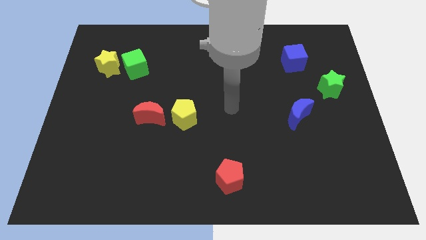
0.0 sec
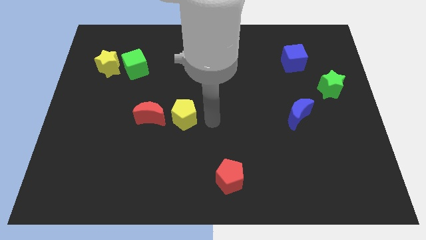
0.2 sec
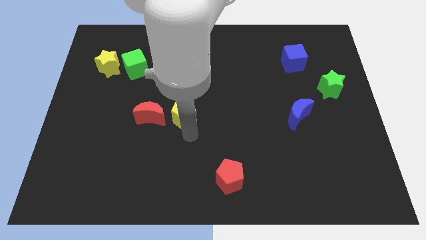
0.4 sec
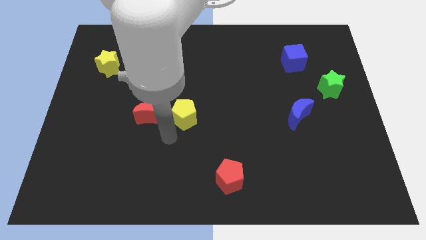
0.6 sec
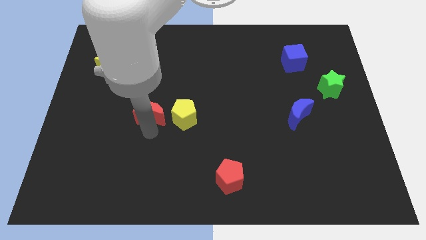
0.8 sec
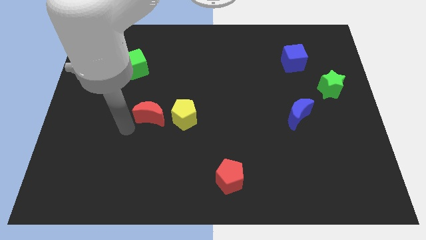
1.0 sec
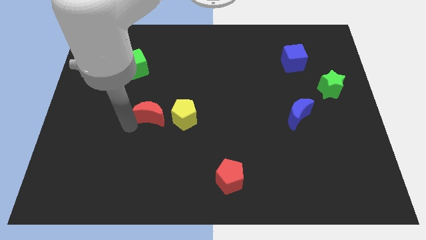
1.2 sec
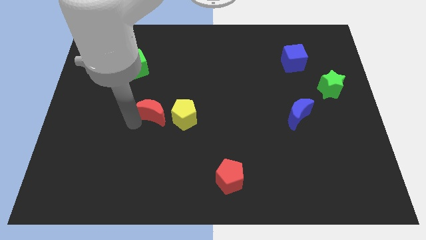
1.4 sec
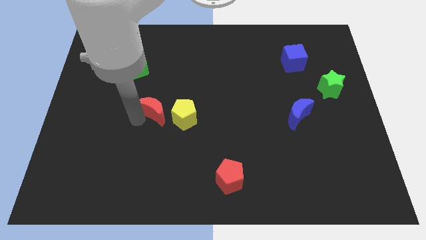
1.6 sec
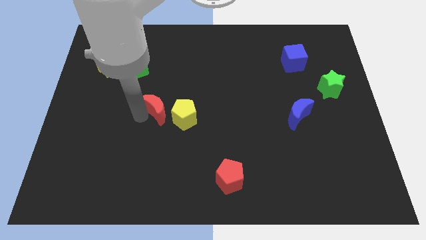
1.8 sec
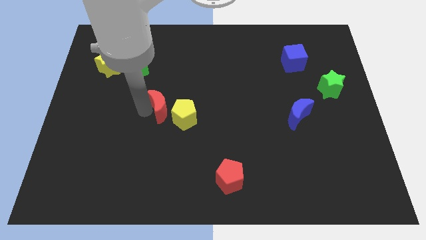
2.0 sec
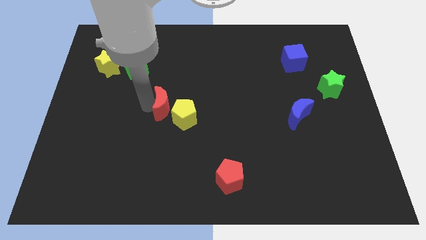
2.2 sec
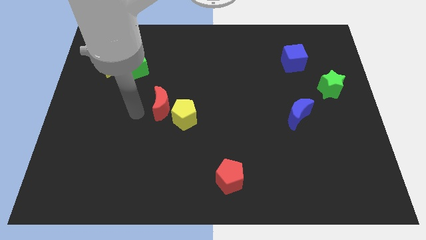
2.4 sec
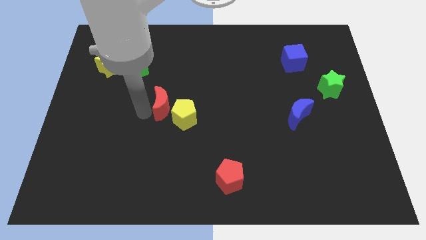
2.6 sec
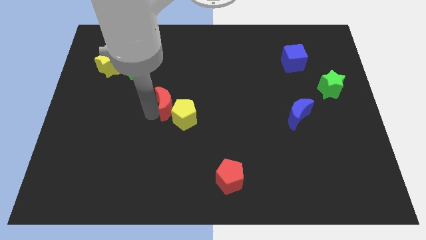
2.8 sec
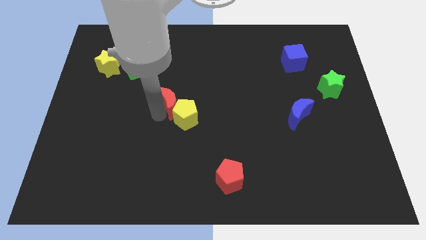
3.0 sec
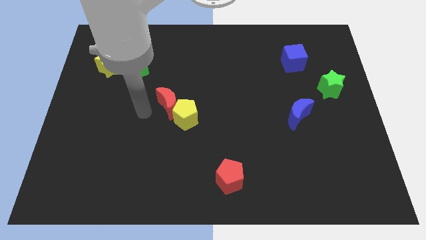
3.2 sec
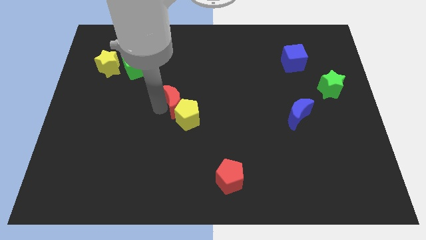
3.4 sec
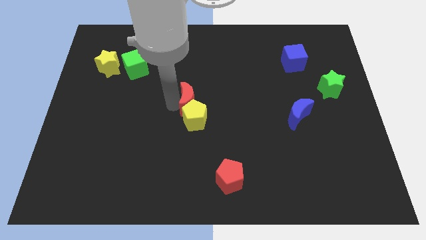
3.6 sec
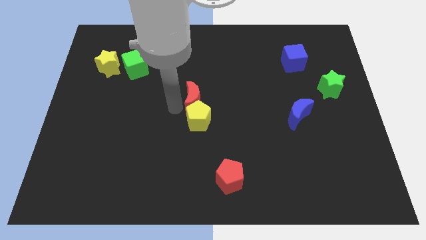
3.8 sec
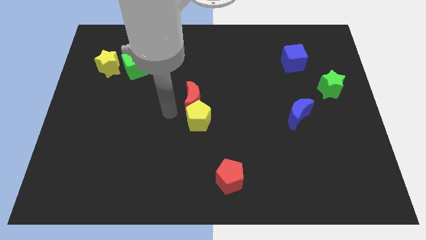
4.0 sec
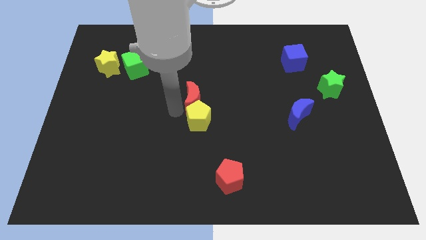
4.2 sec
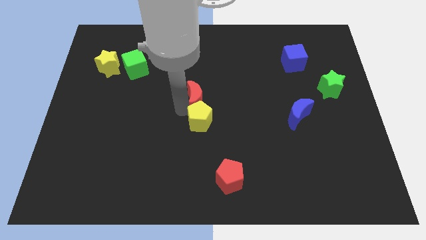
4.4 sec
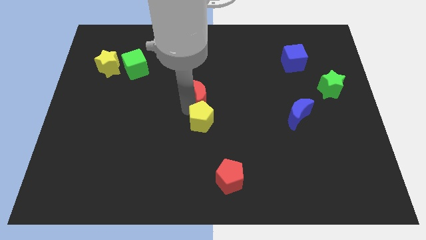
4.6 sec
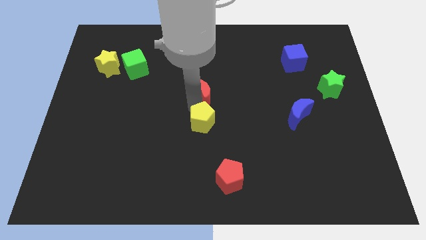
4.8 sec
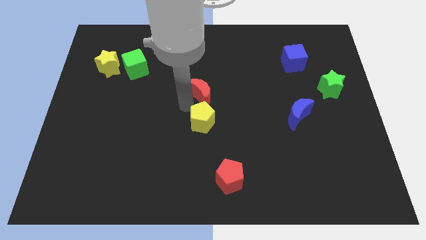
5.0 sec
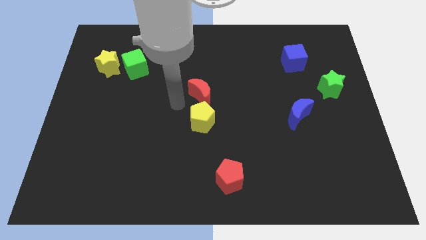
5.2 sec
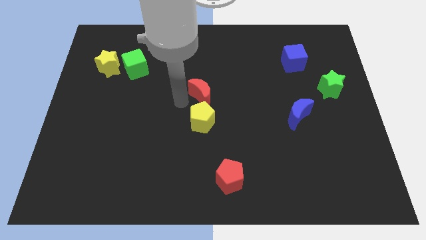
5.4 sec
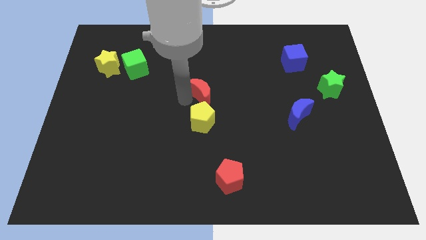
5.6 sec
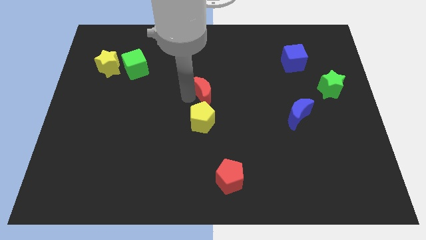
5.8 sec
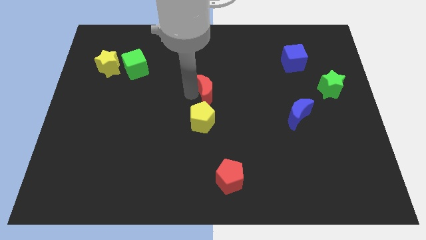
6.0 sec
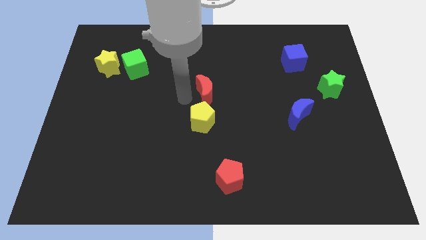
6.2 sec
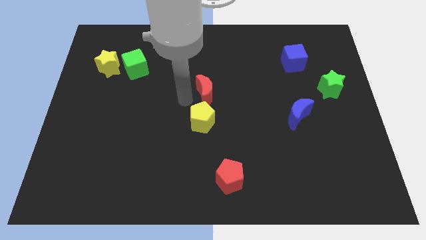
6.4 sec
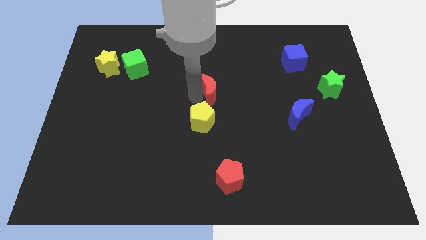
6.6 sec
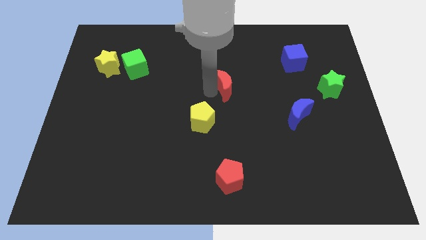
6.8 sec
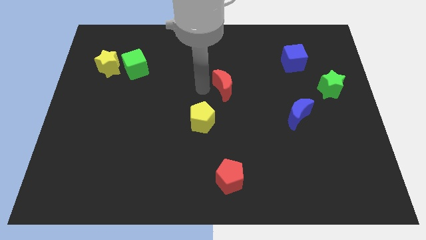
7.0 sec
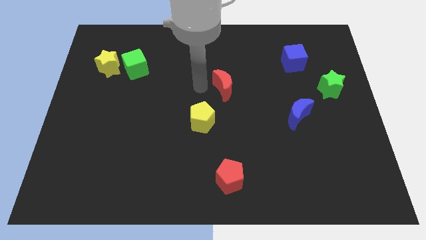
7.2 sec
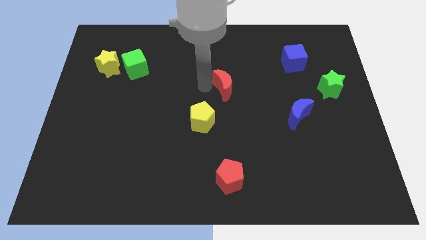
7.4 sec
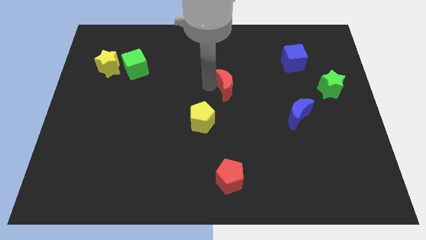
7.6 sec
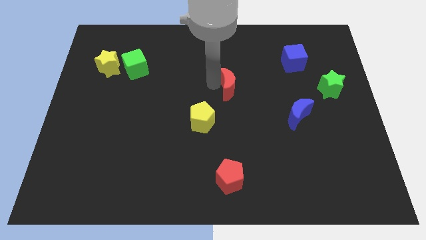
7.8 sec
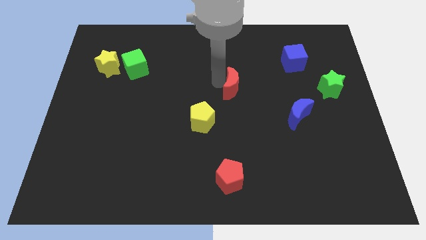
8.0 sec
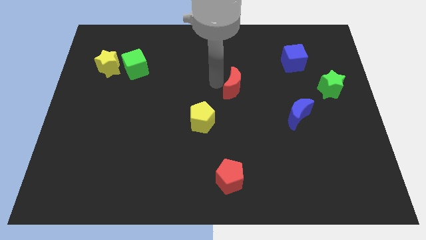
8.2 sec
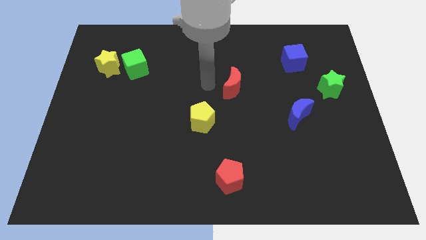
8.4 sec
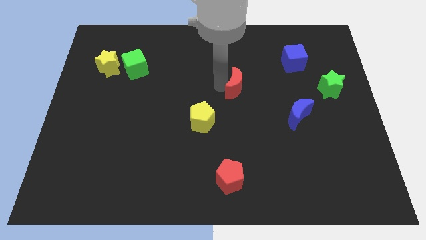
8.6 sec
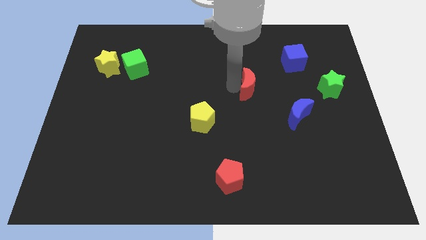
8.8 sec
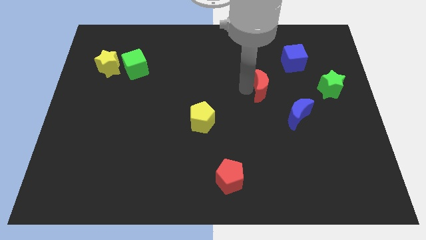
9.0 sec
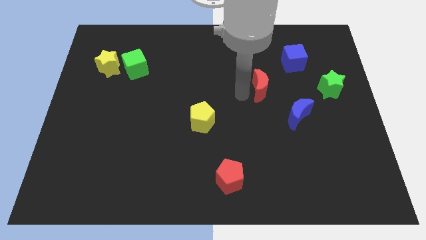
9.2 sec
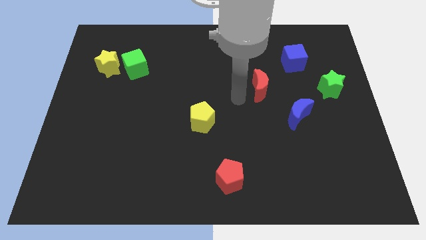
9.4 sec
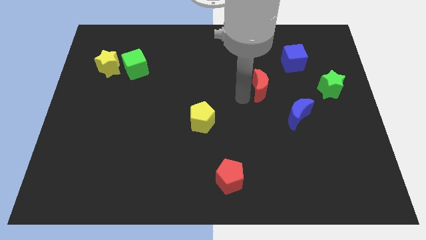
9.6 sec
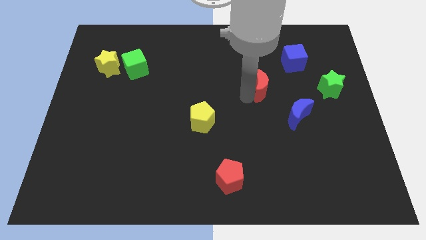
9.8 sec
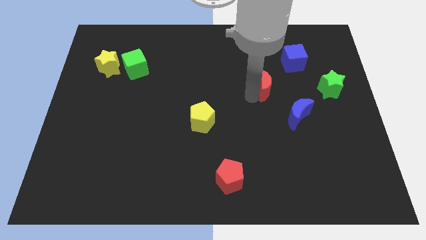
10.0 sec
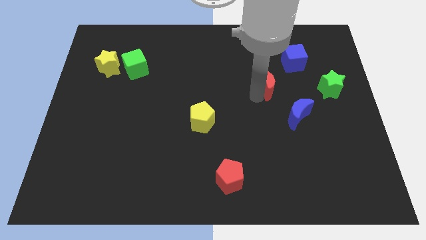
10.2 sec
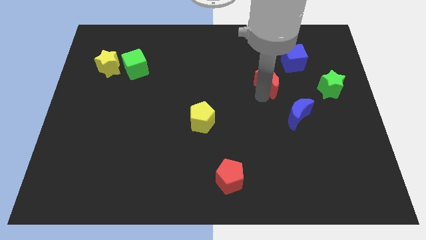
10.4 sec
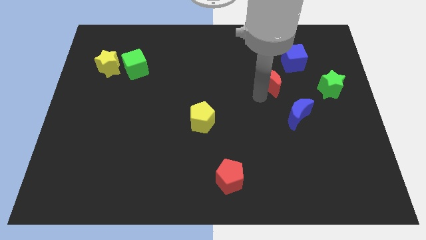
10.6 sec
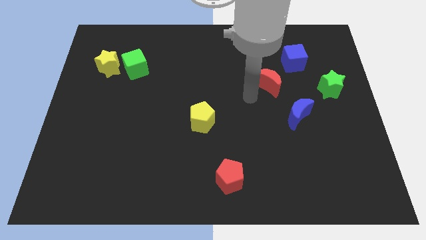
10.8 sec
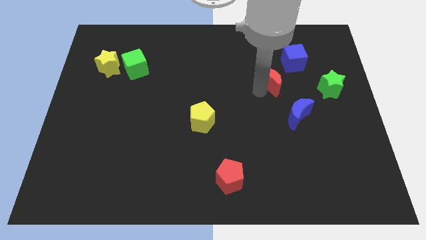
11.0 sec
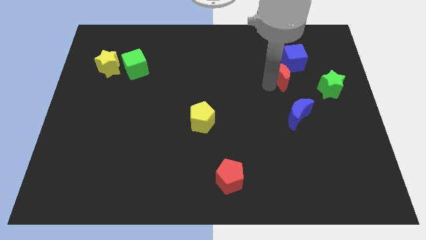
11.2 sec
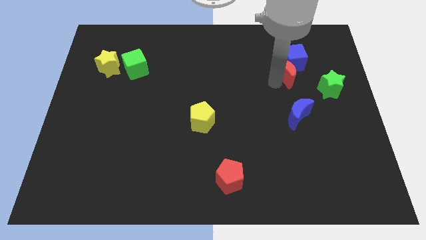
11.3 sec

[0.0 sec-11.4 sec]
slide the red moon close to the blue cube

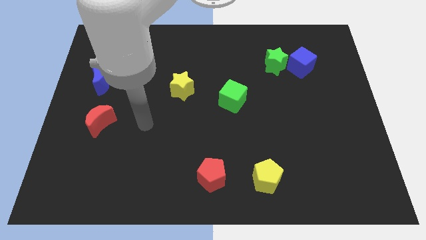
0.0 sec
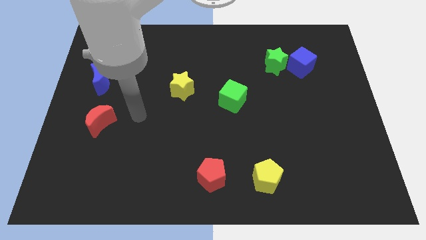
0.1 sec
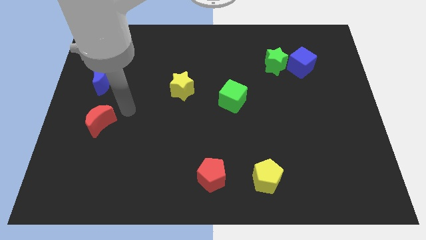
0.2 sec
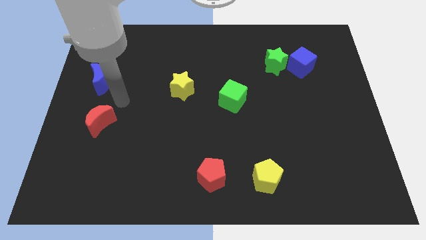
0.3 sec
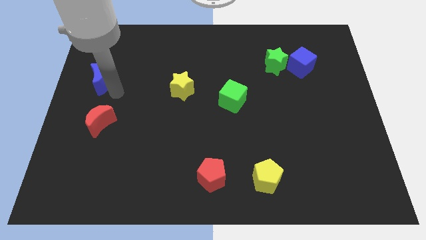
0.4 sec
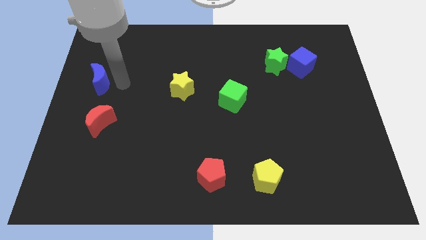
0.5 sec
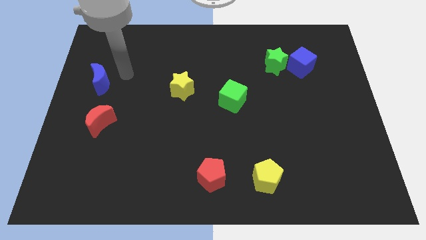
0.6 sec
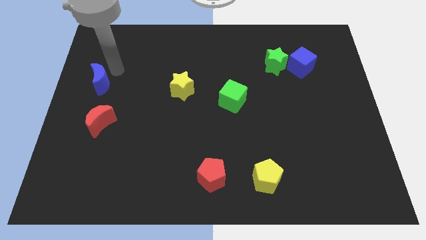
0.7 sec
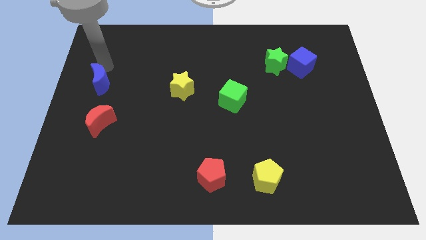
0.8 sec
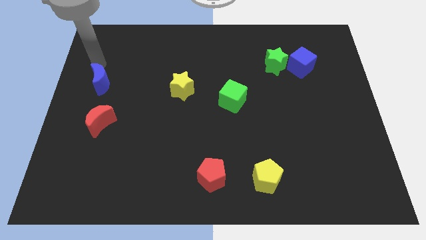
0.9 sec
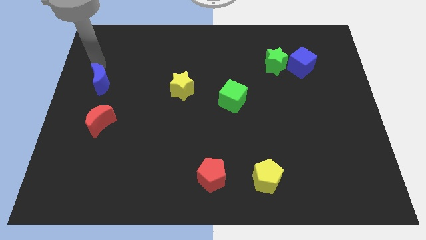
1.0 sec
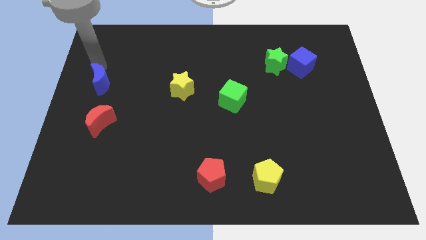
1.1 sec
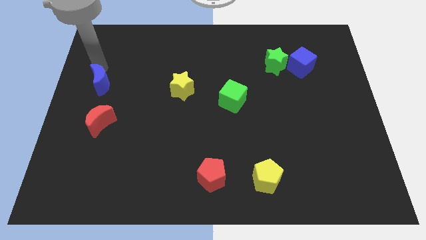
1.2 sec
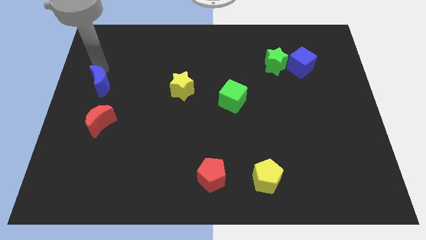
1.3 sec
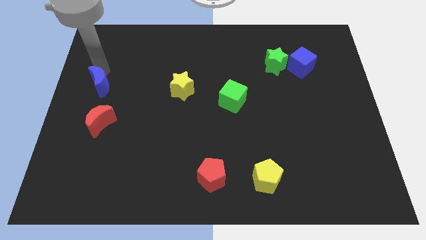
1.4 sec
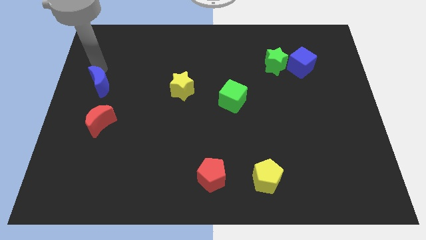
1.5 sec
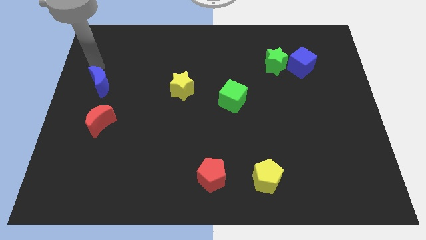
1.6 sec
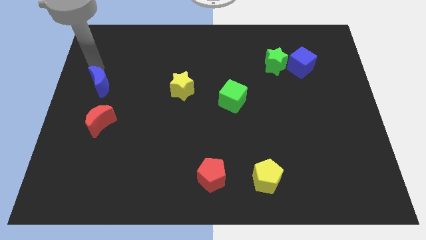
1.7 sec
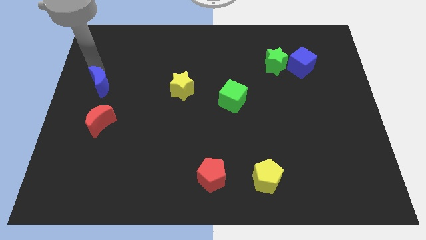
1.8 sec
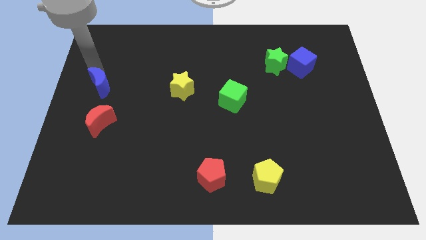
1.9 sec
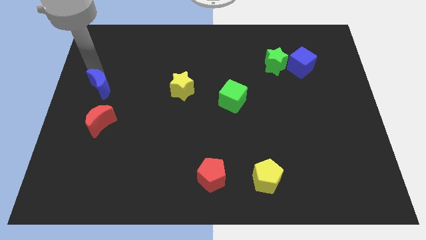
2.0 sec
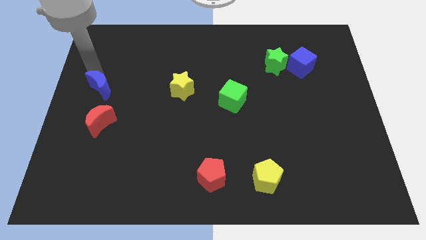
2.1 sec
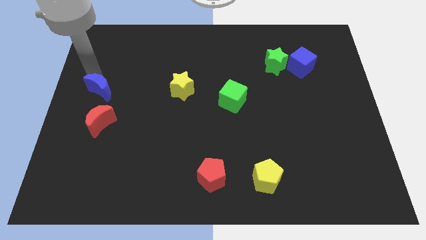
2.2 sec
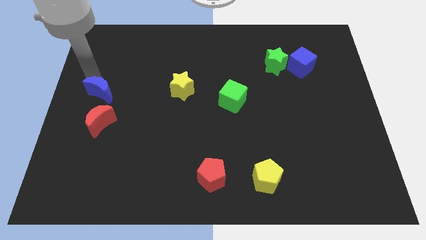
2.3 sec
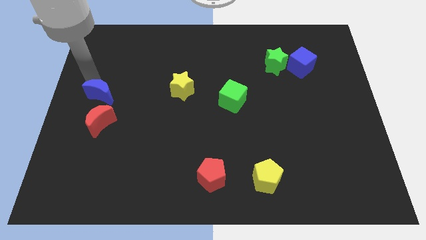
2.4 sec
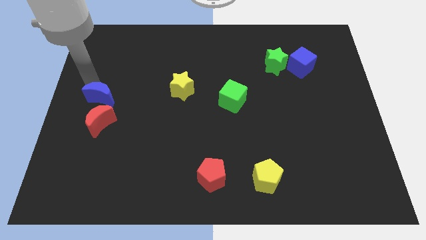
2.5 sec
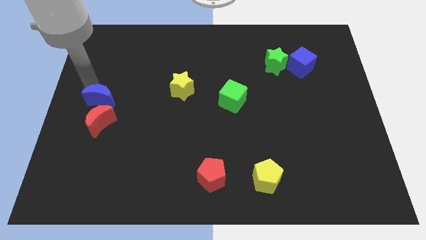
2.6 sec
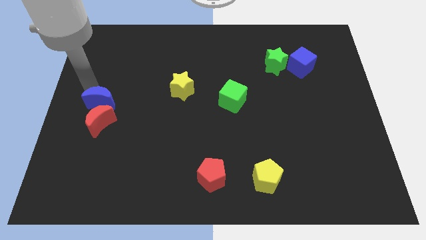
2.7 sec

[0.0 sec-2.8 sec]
put the blue moon next to the red moon
